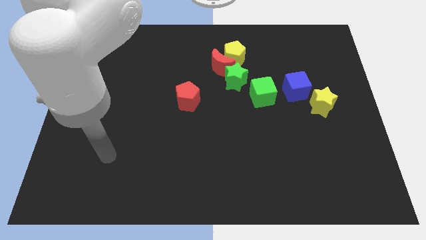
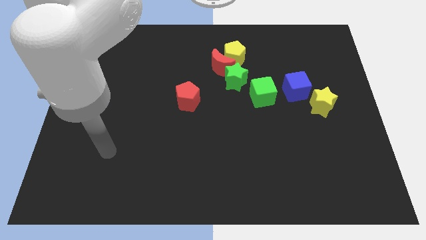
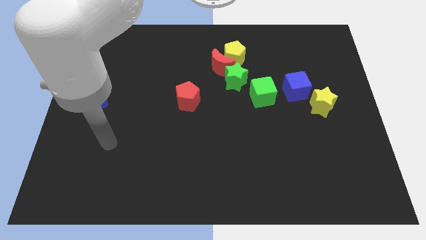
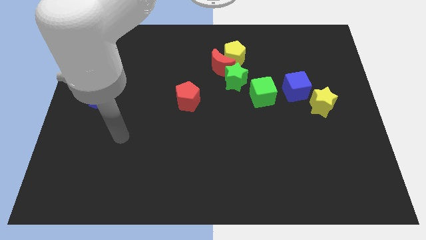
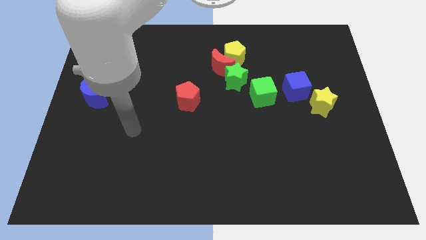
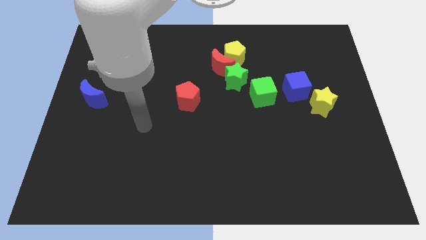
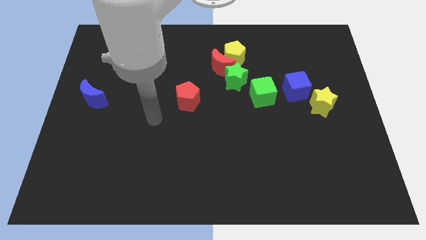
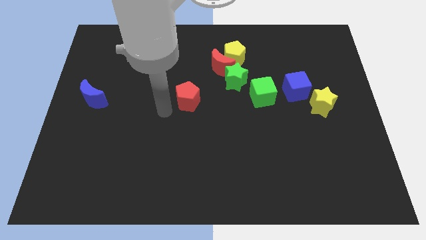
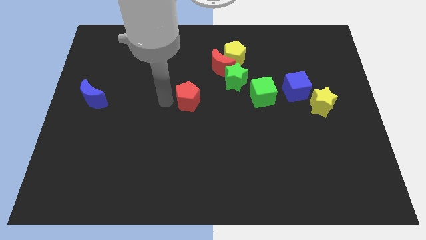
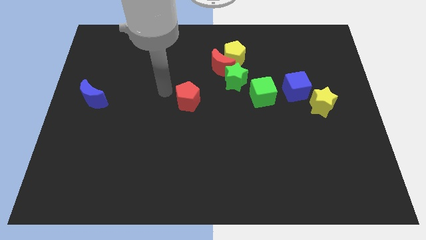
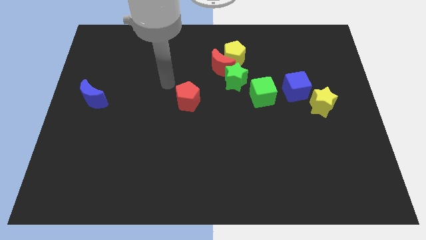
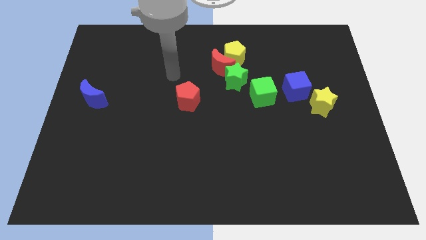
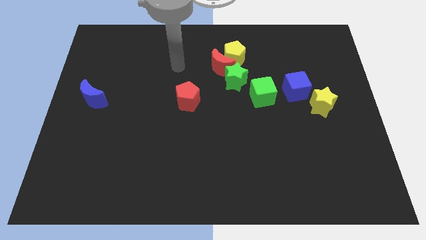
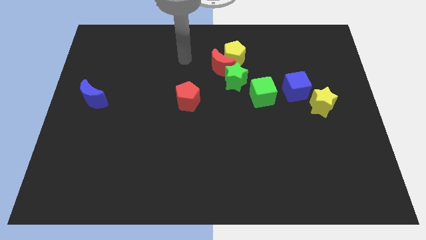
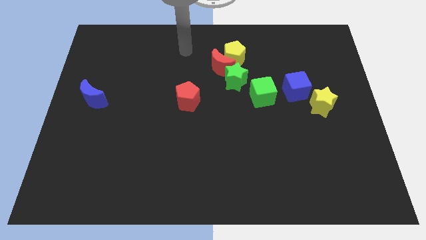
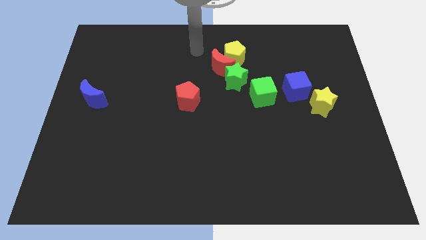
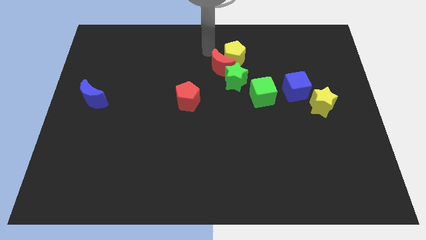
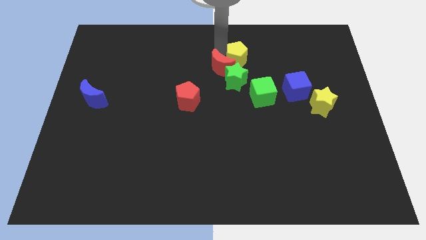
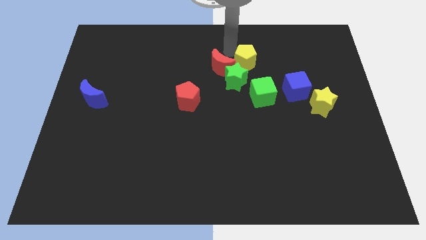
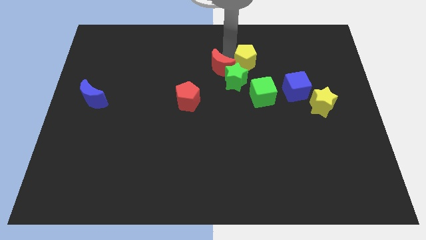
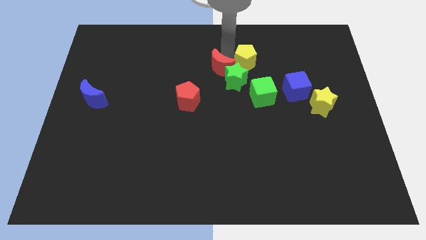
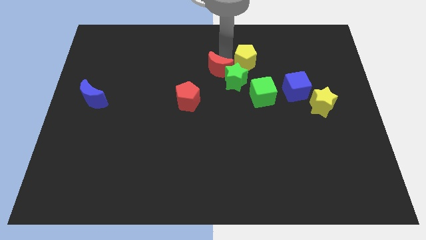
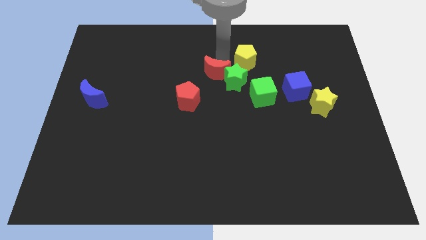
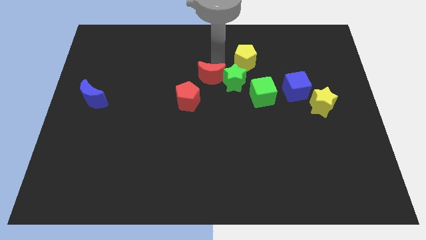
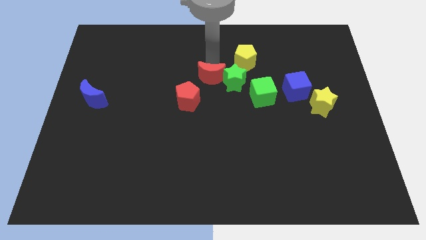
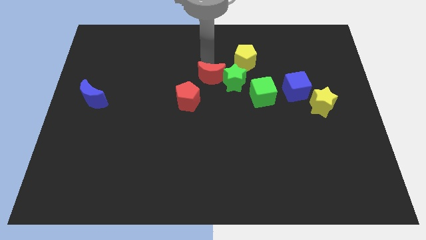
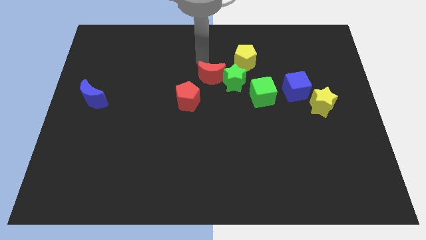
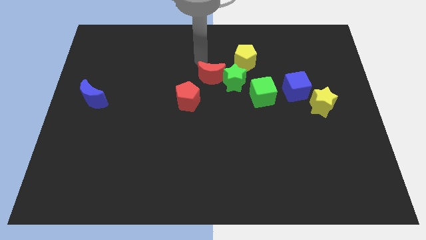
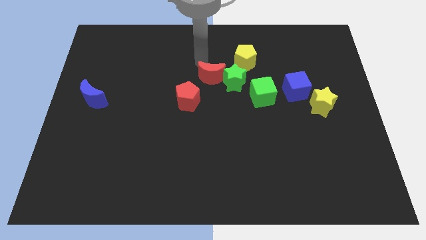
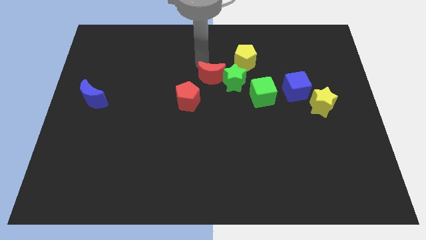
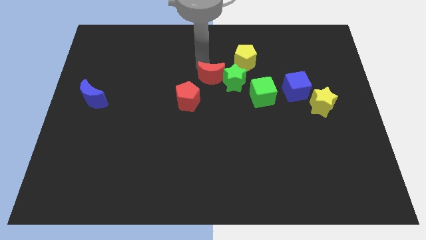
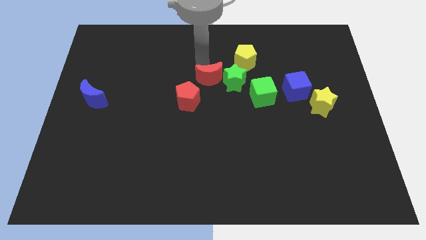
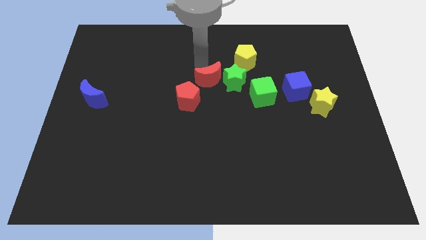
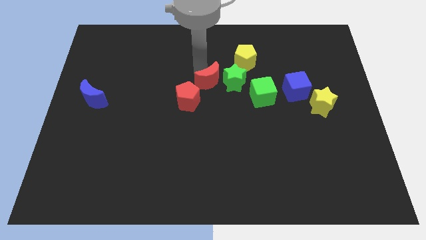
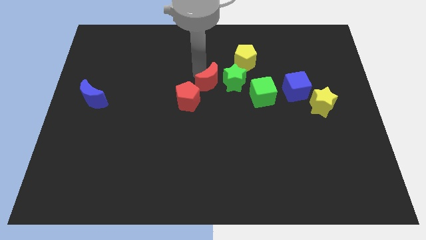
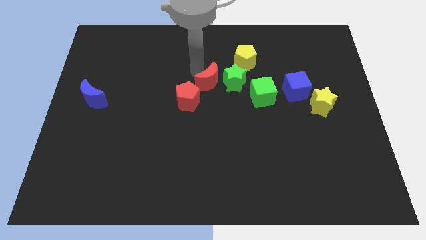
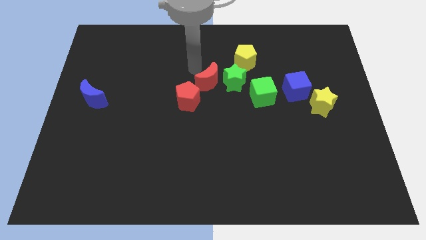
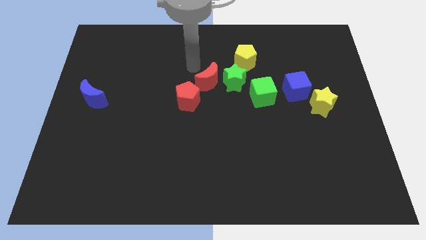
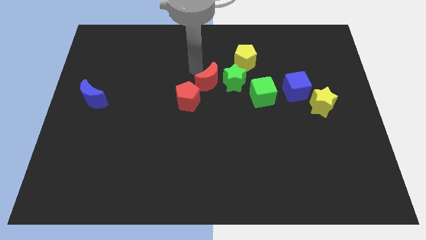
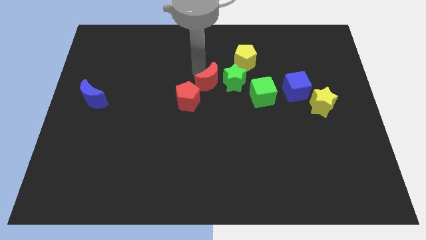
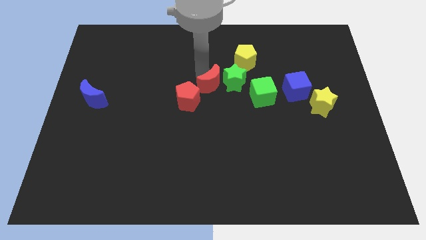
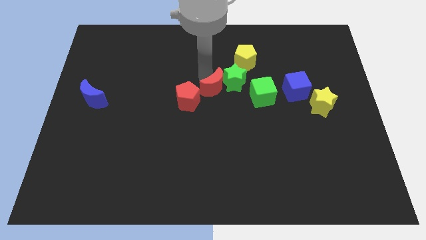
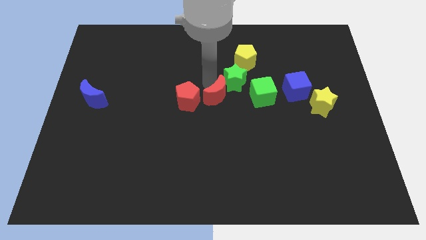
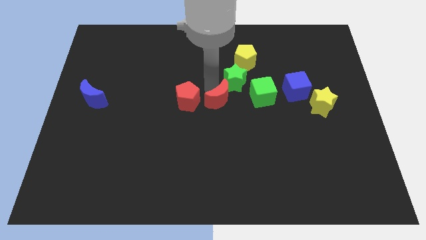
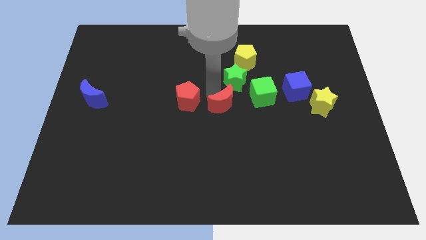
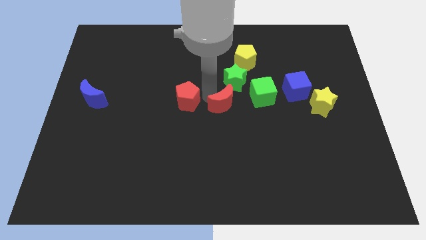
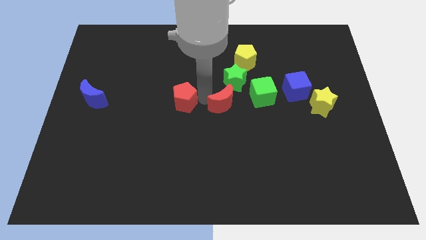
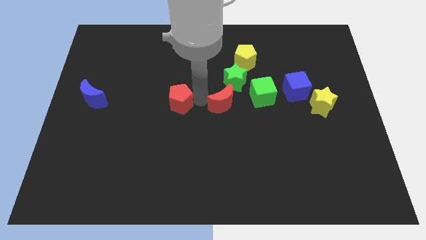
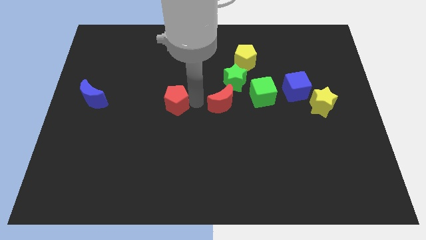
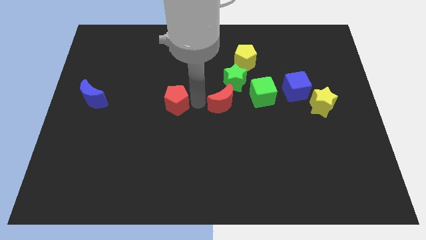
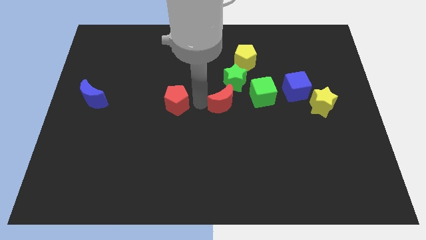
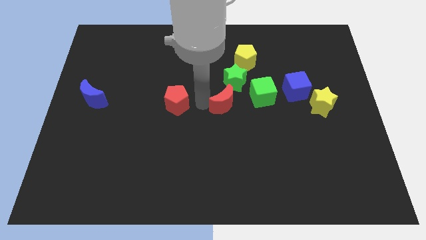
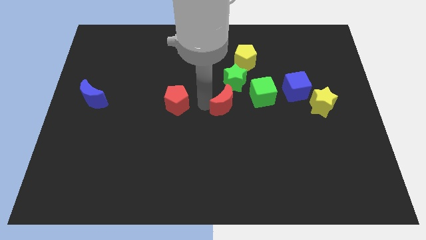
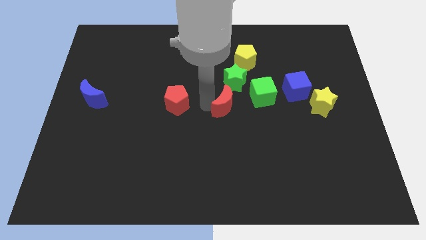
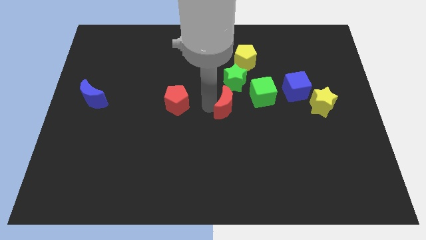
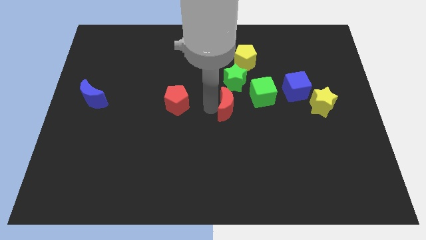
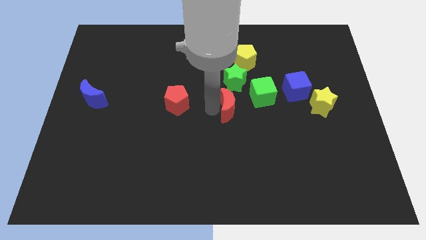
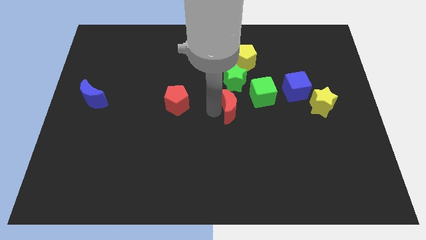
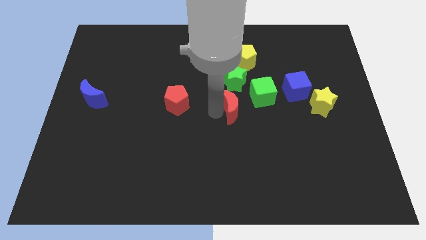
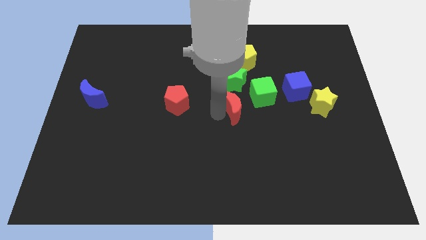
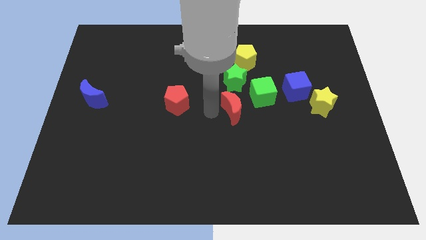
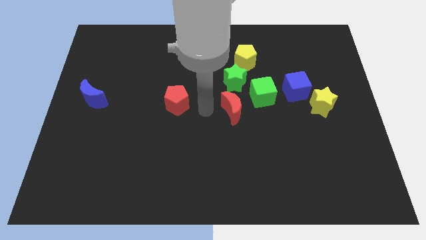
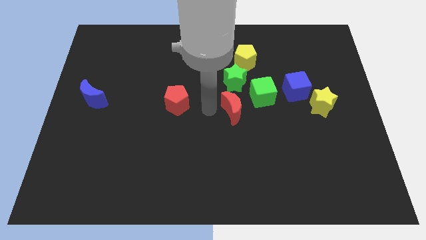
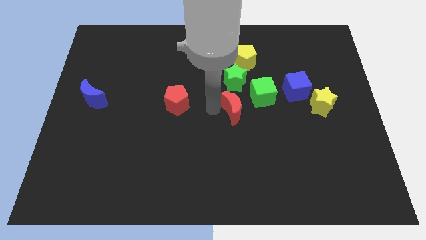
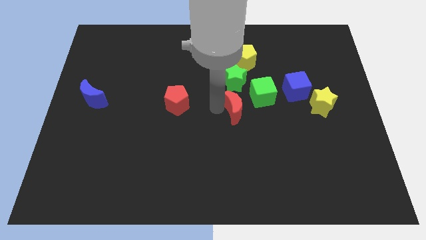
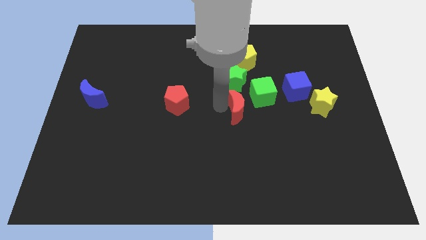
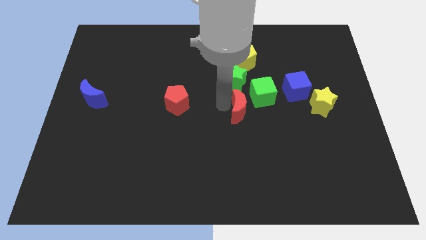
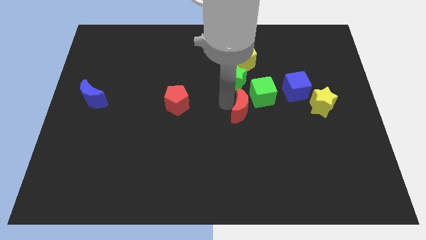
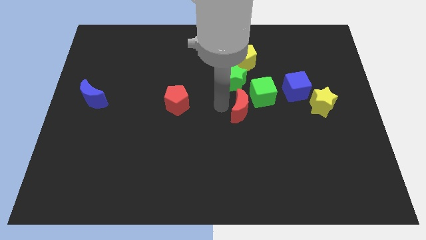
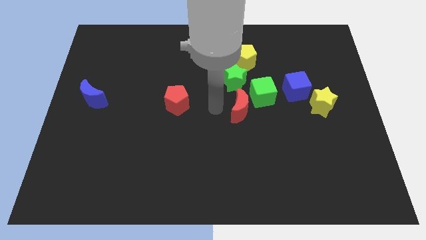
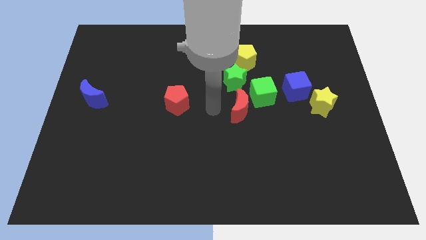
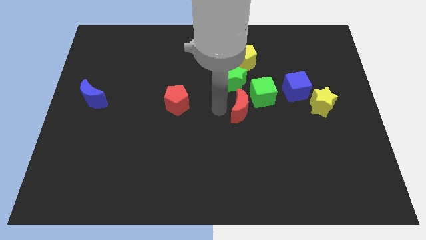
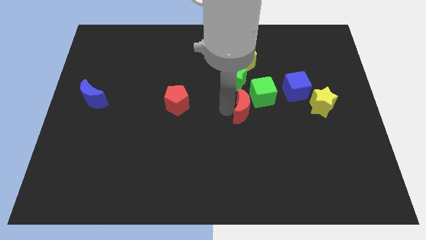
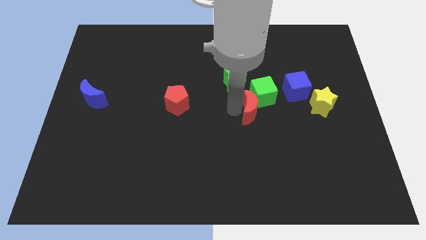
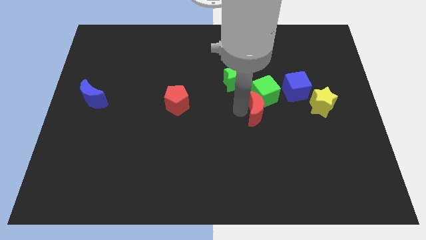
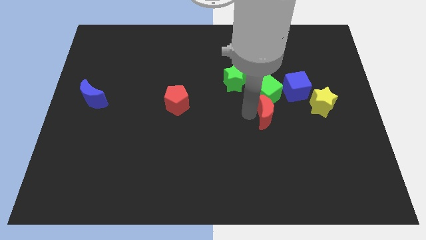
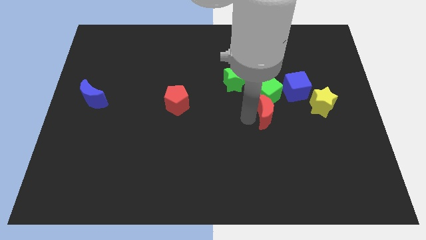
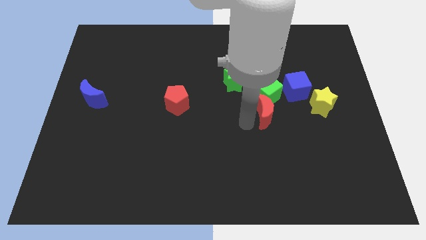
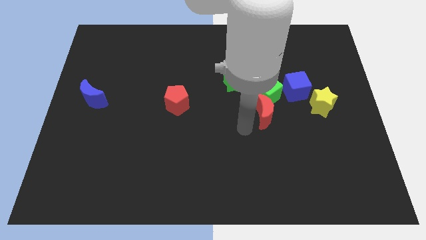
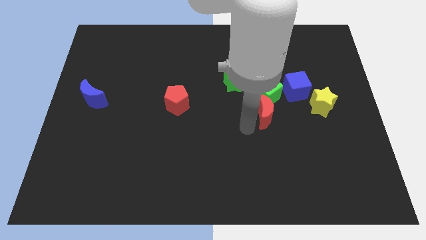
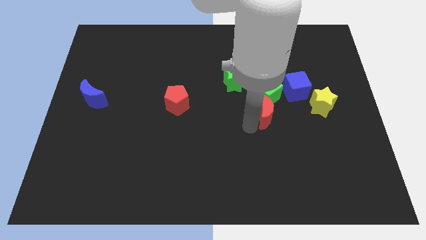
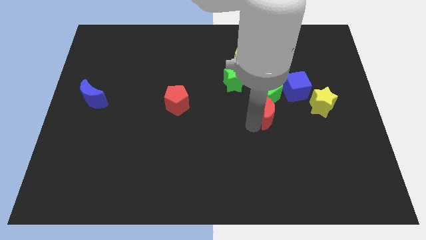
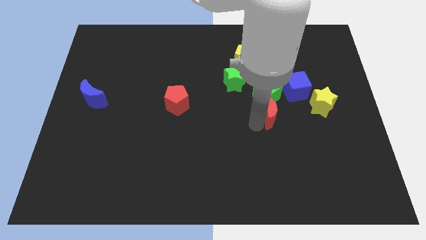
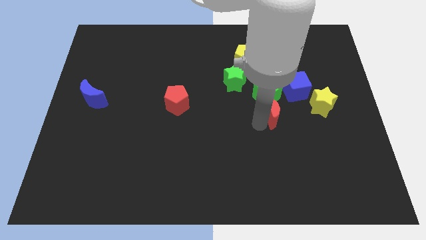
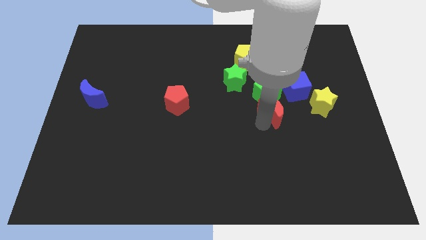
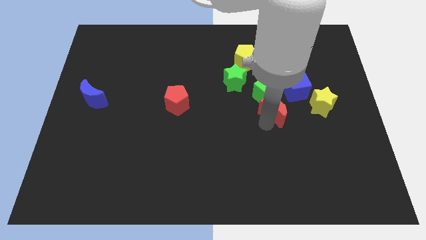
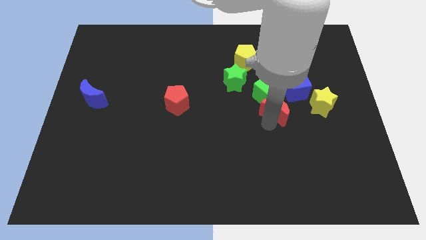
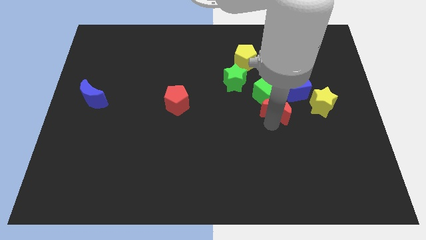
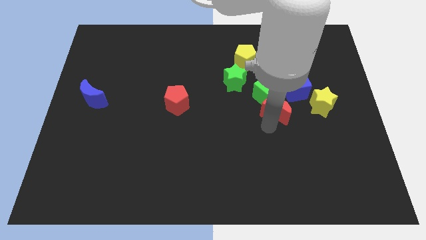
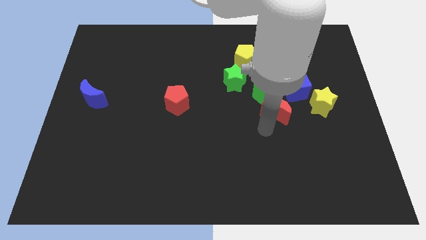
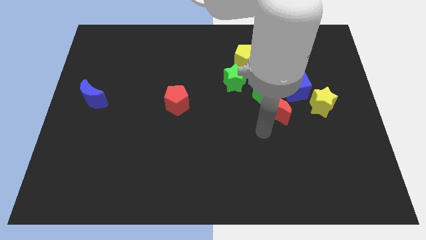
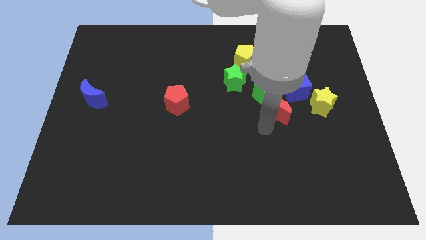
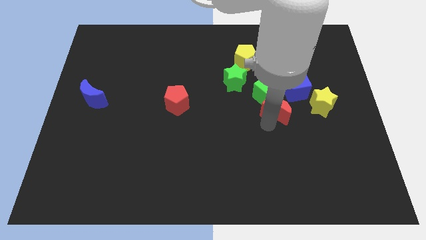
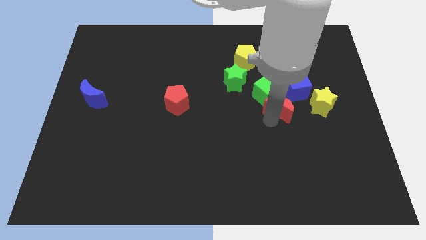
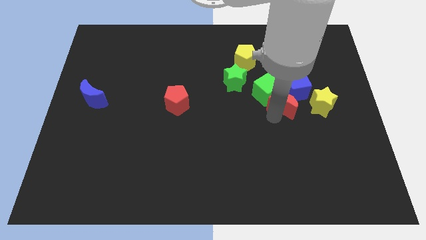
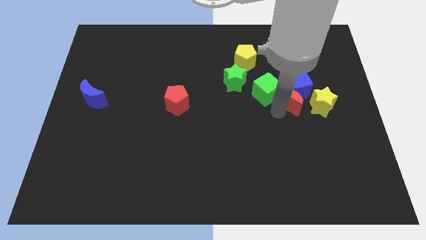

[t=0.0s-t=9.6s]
put the red moon next to the blue cube
